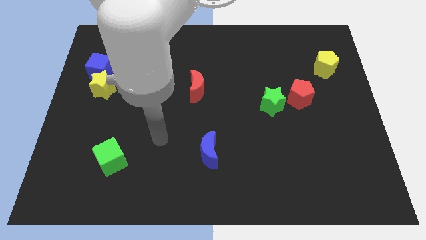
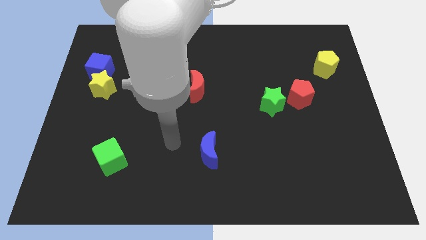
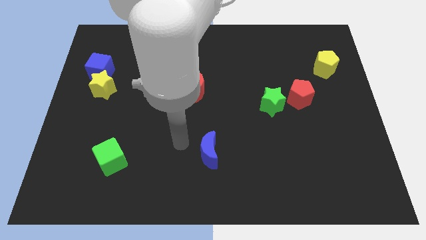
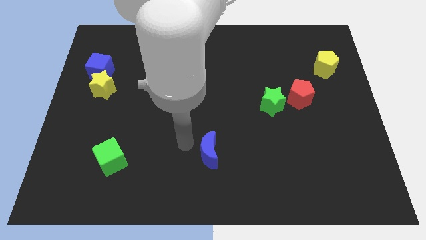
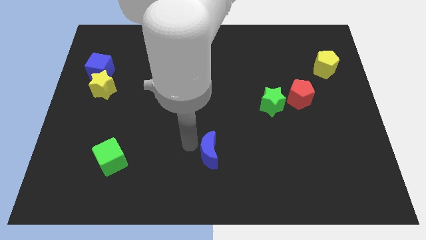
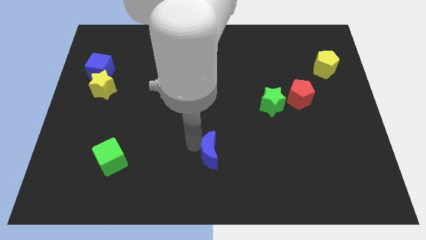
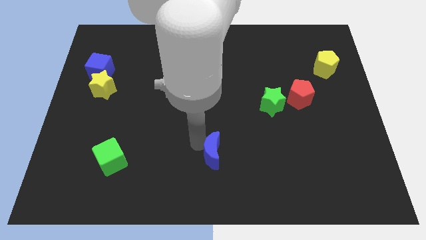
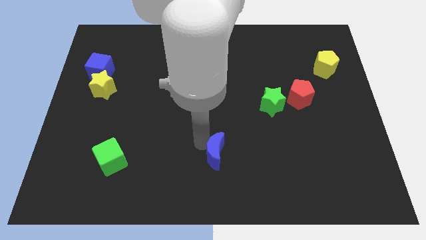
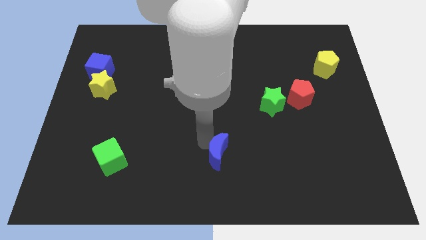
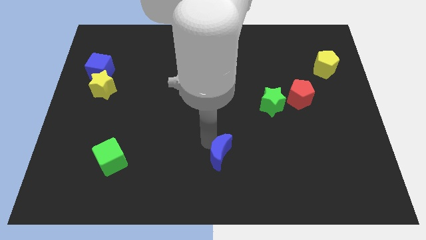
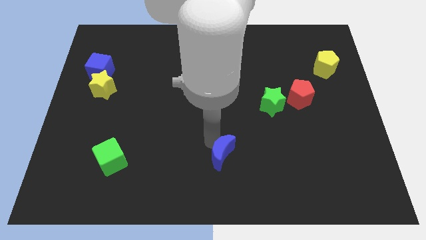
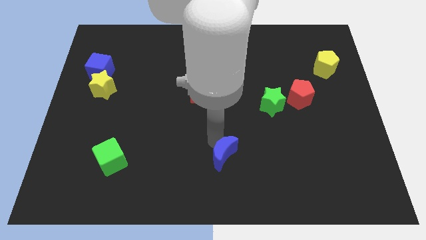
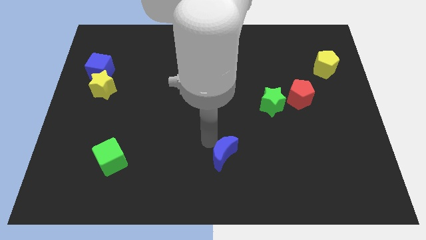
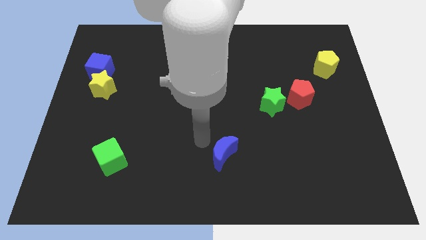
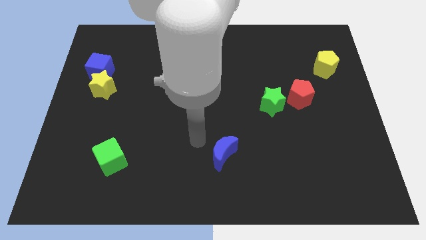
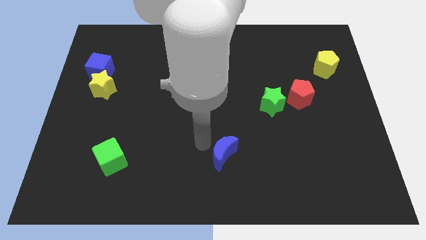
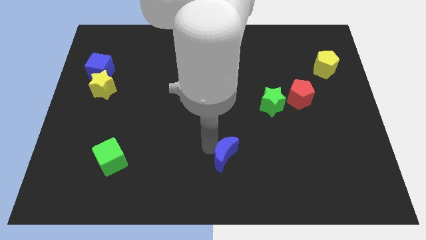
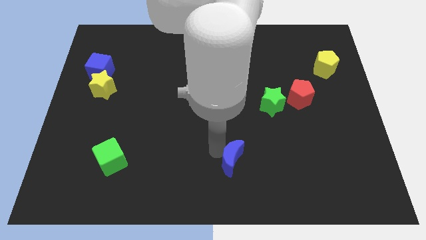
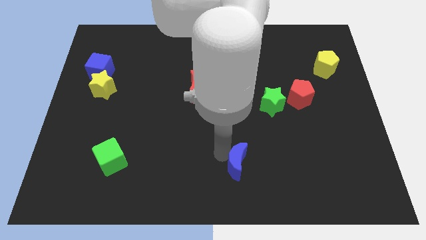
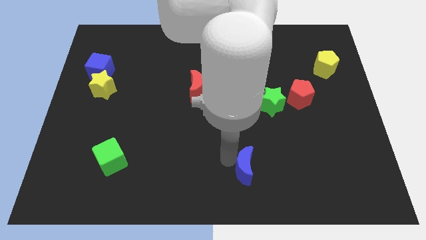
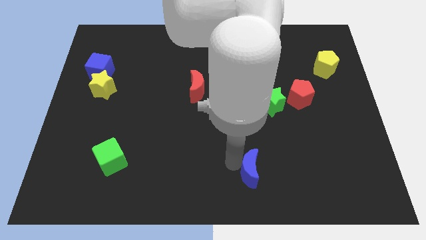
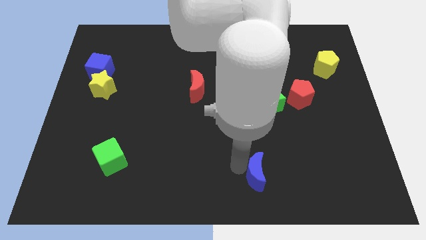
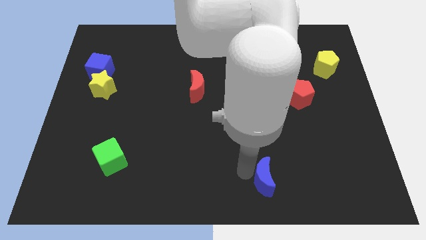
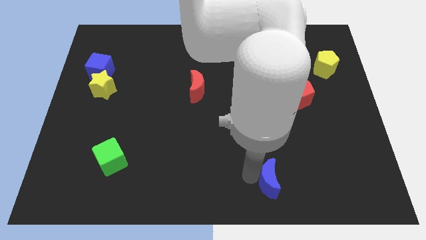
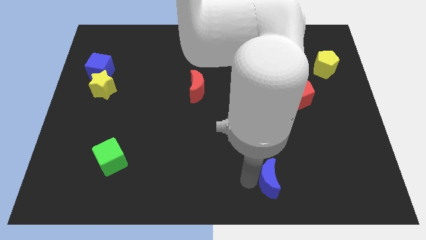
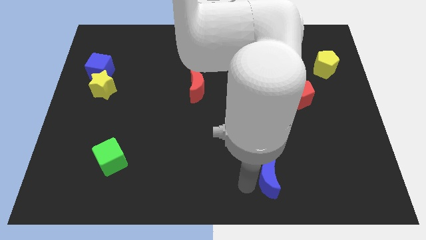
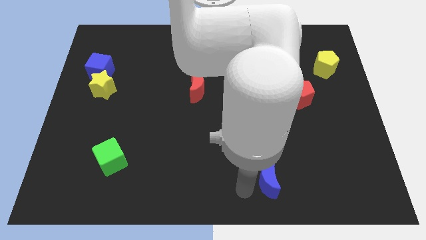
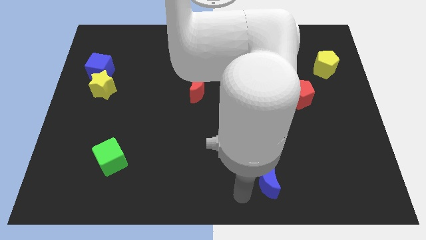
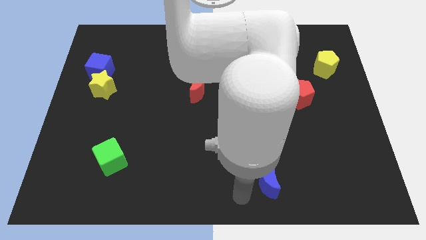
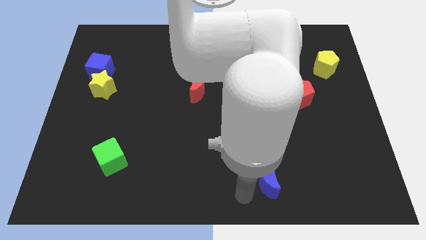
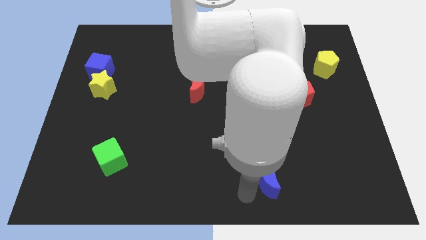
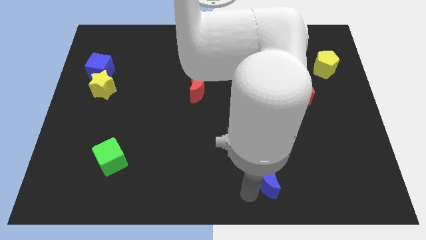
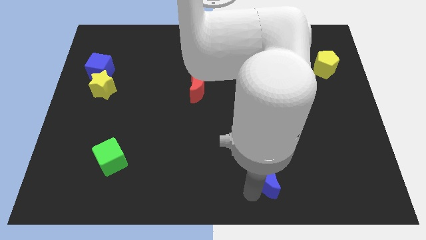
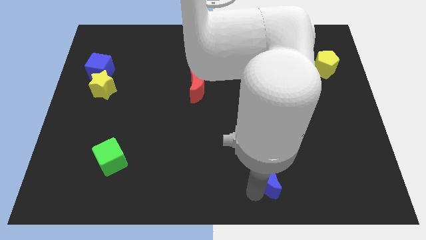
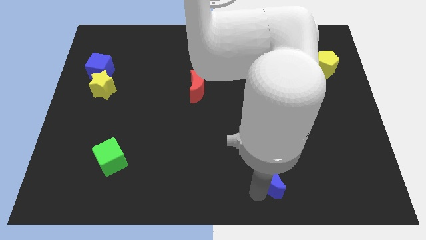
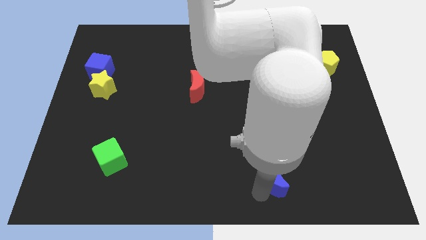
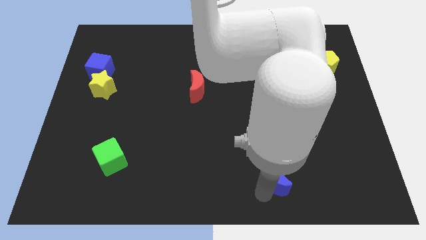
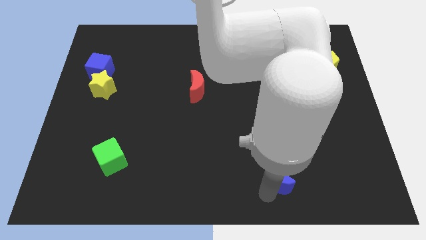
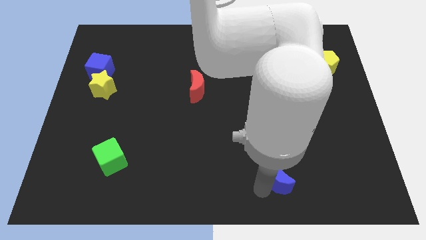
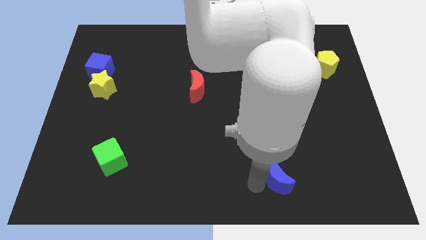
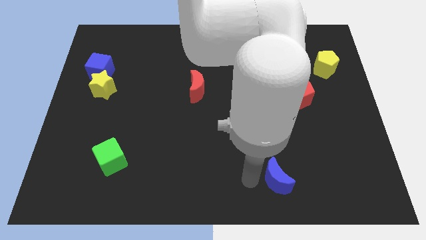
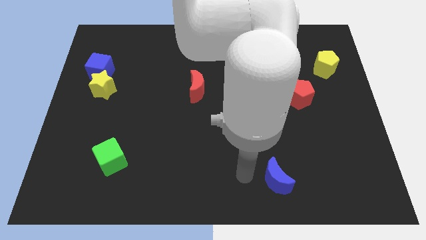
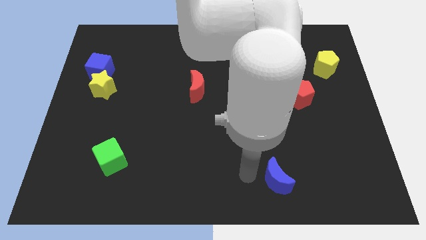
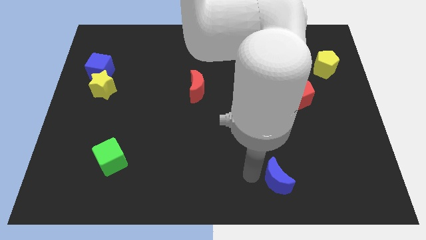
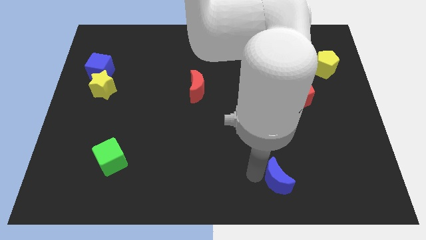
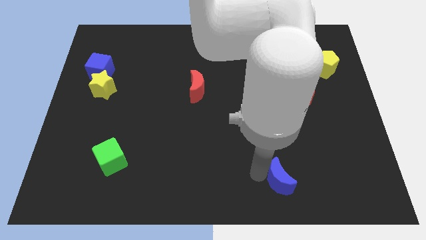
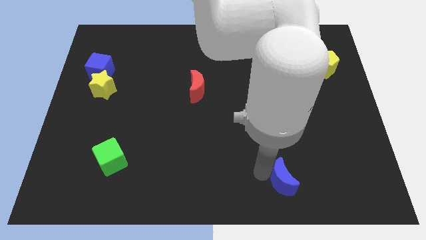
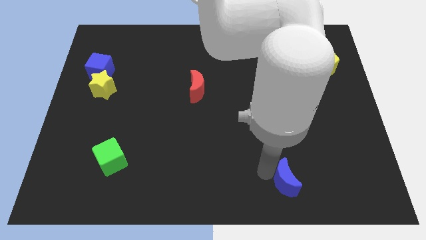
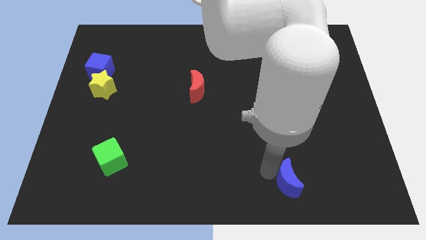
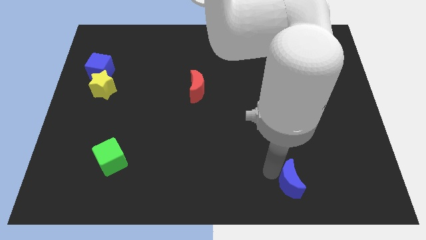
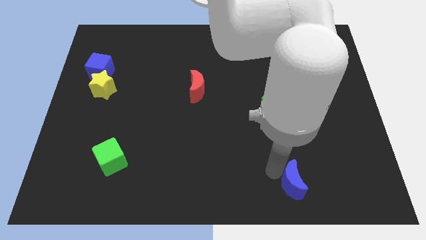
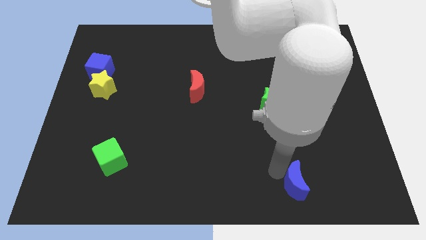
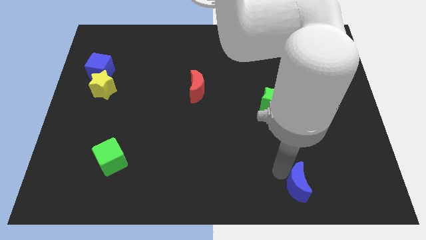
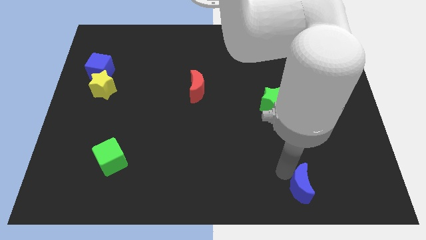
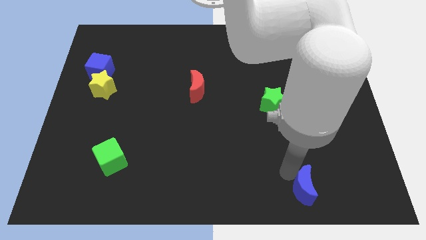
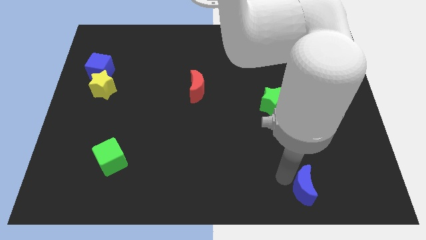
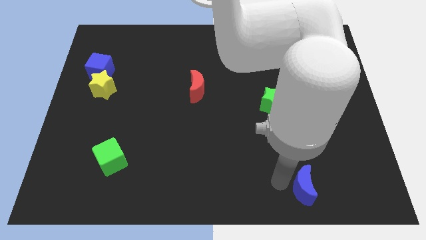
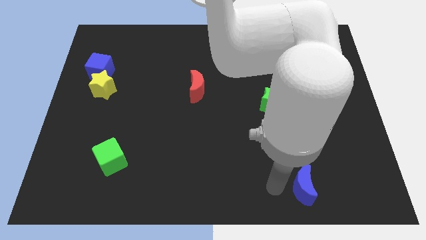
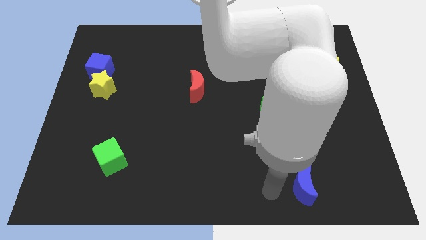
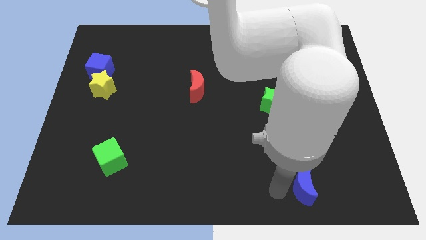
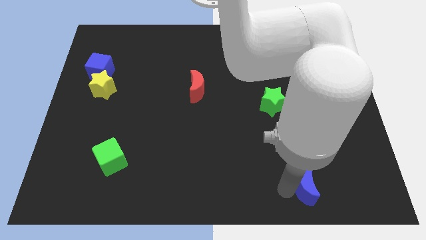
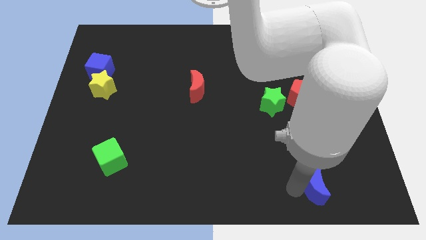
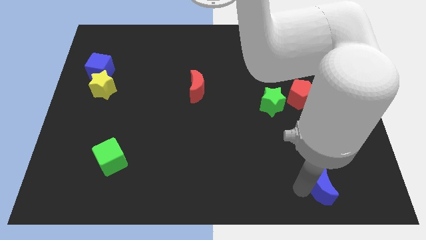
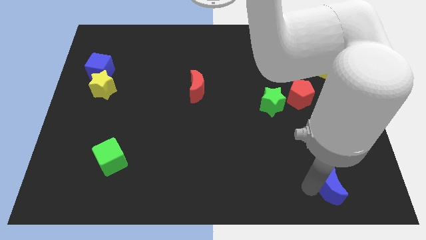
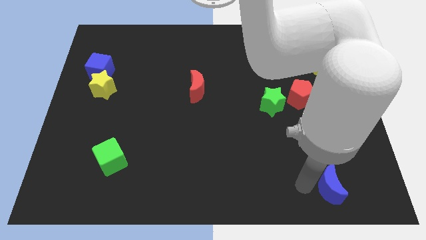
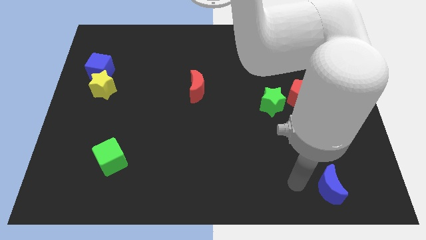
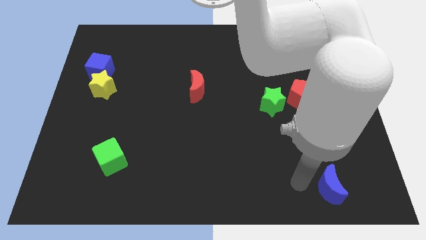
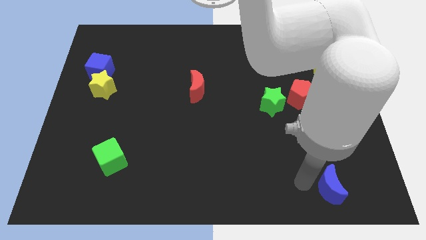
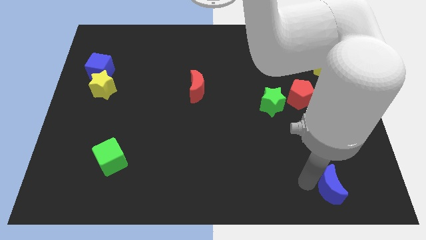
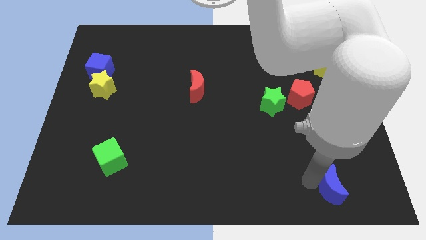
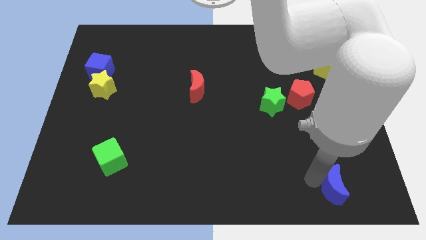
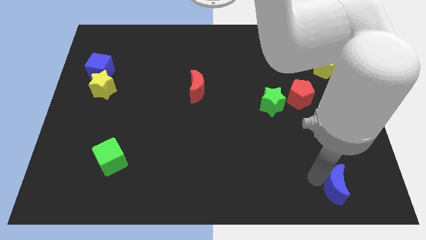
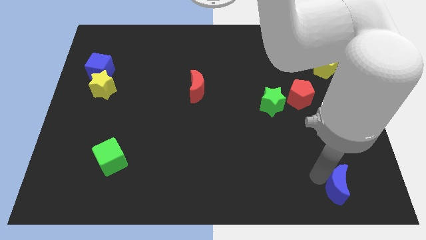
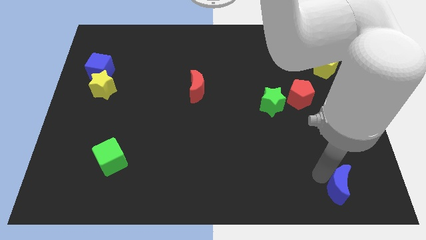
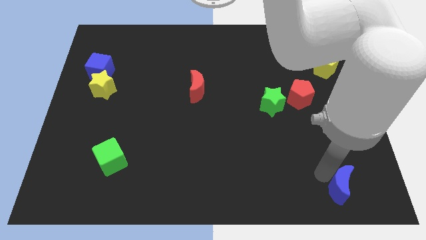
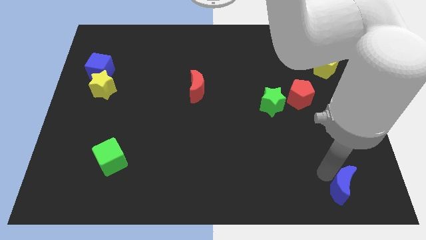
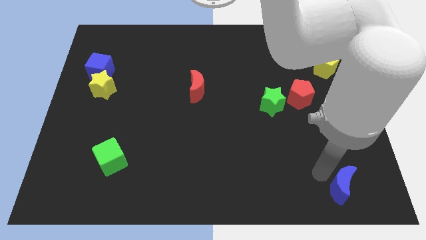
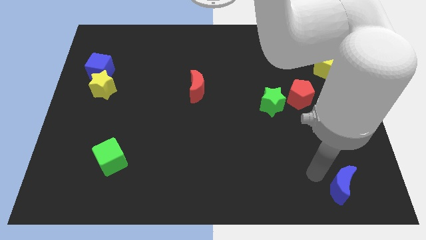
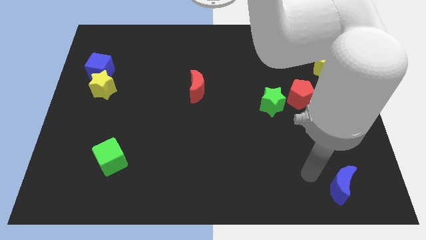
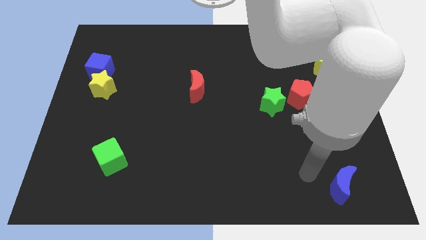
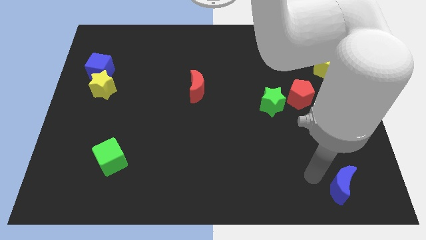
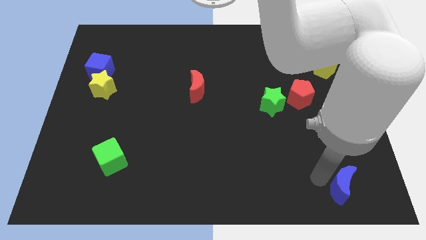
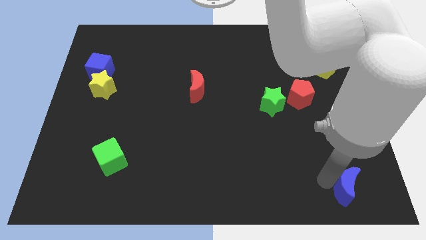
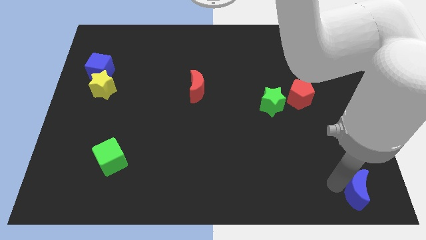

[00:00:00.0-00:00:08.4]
move the blue moon to the bottom right corner
